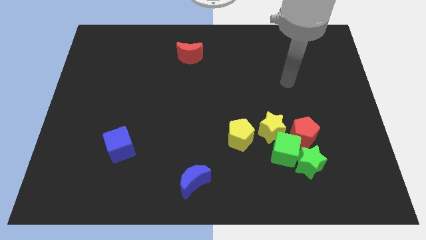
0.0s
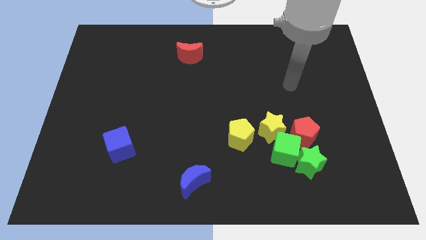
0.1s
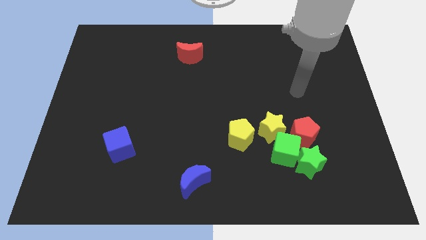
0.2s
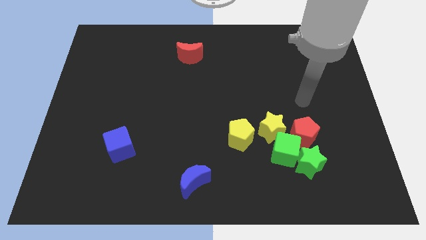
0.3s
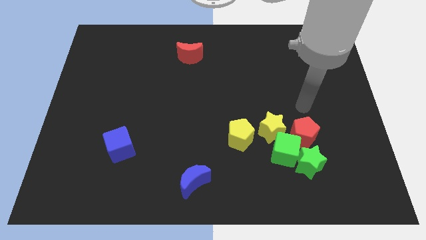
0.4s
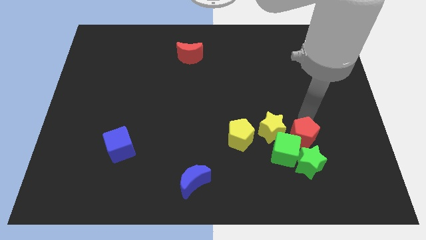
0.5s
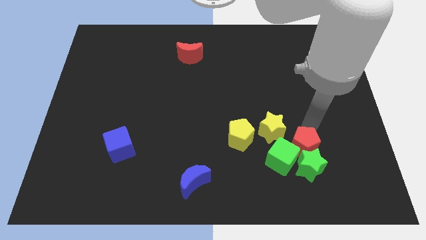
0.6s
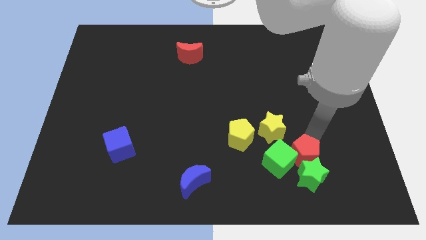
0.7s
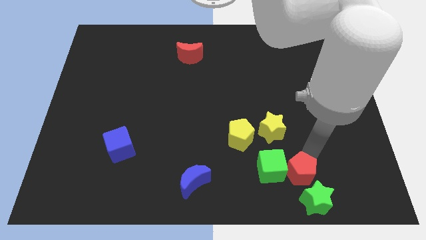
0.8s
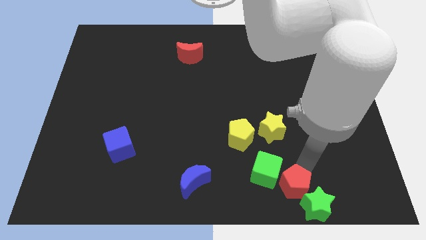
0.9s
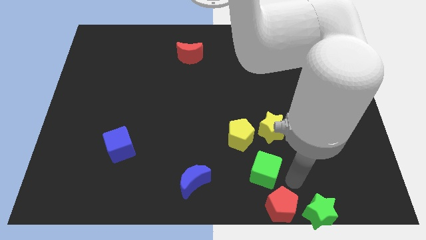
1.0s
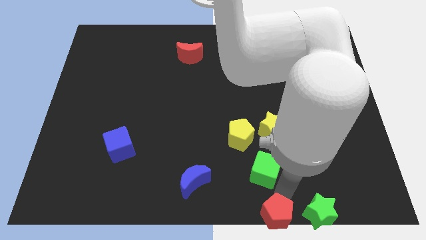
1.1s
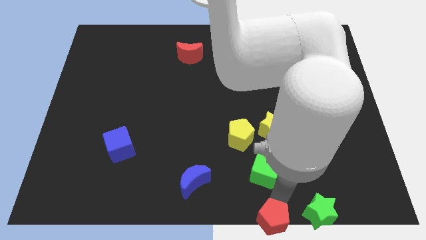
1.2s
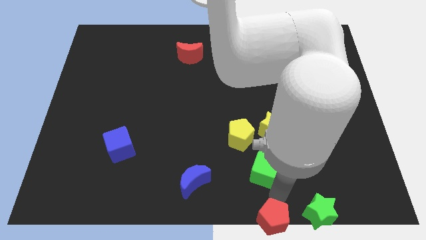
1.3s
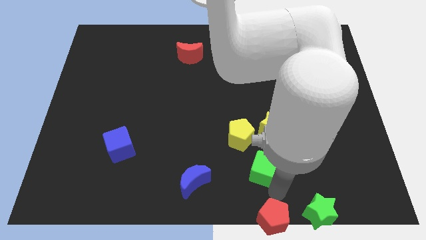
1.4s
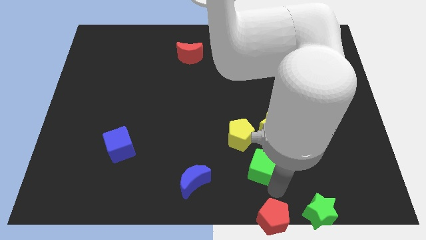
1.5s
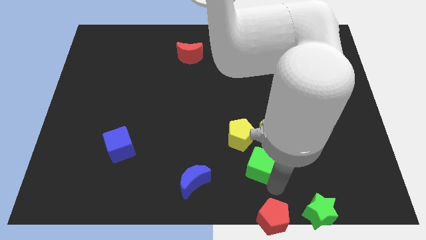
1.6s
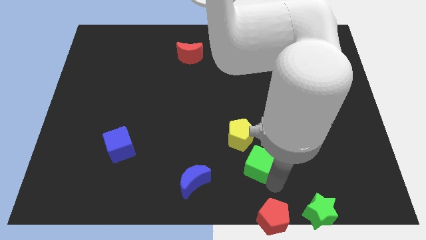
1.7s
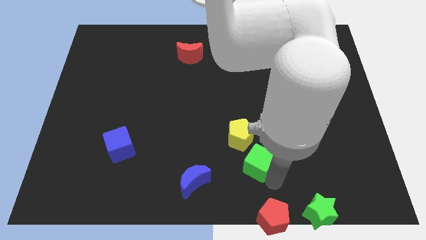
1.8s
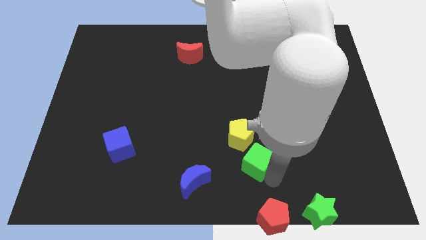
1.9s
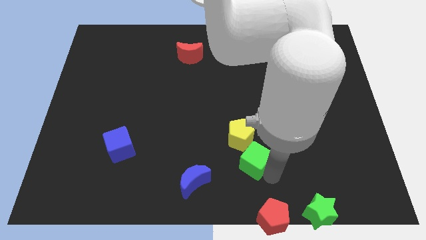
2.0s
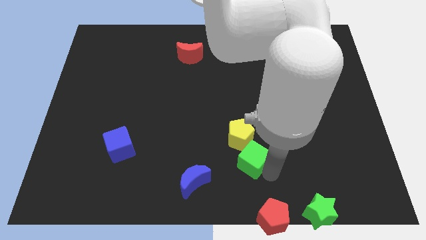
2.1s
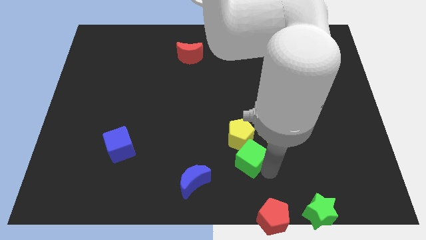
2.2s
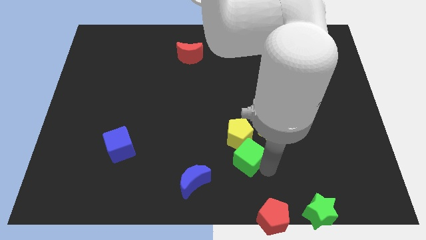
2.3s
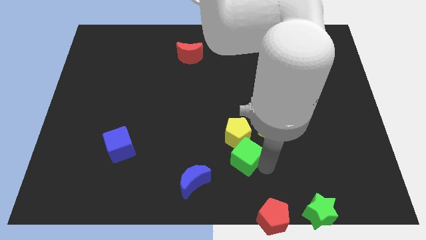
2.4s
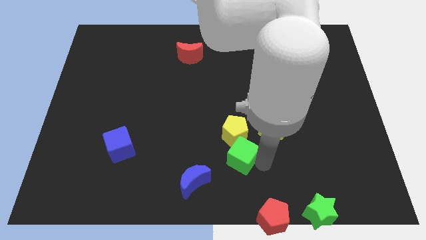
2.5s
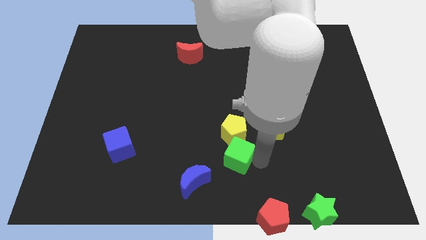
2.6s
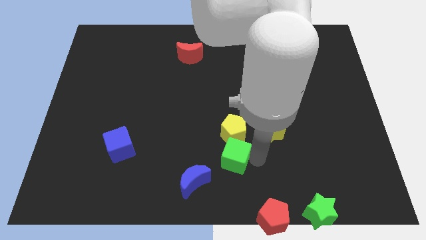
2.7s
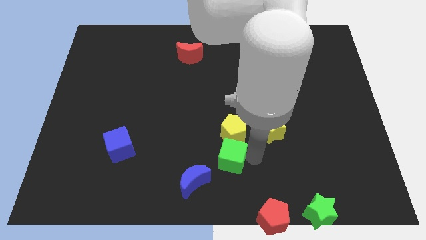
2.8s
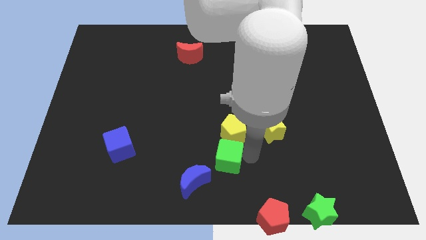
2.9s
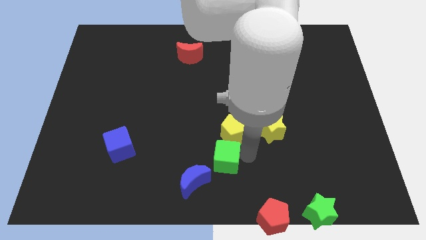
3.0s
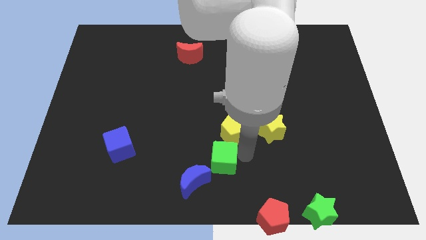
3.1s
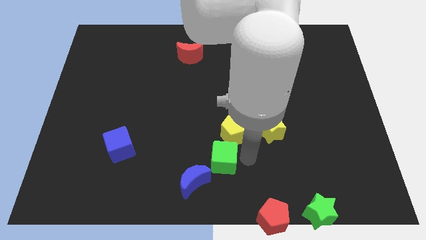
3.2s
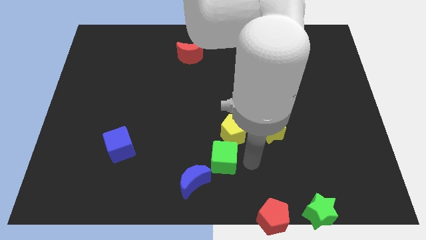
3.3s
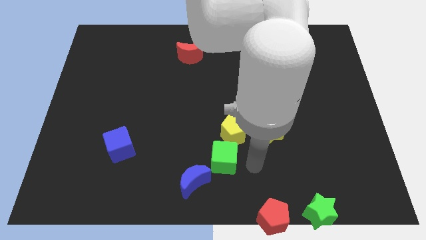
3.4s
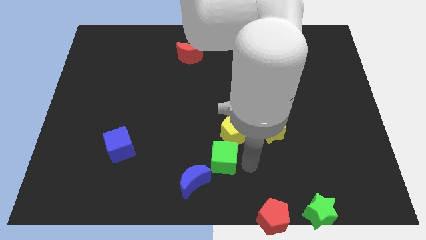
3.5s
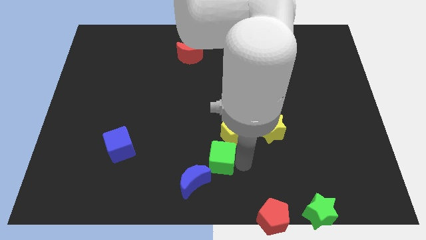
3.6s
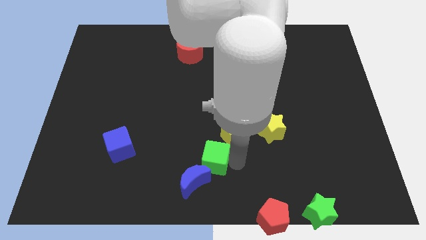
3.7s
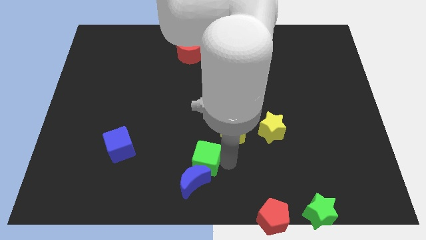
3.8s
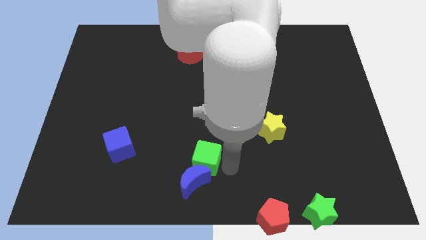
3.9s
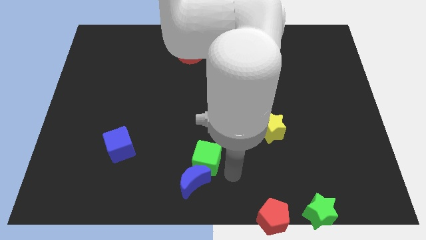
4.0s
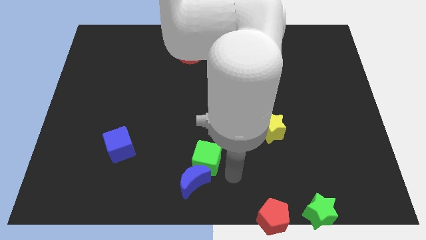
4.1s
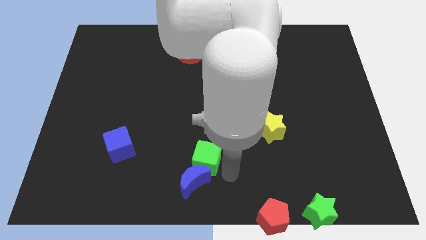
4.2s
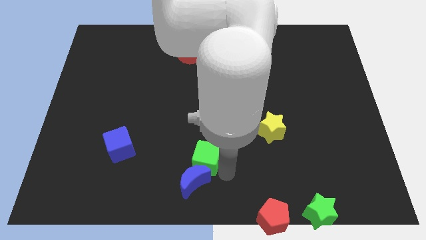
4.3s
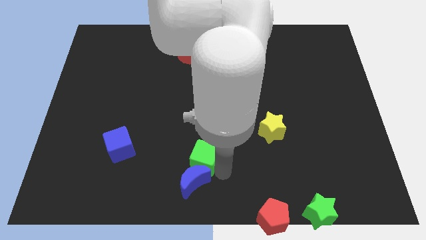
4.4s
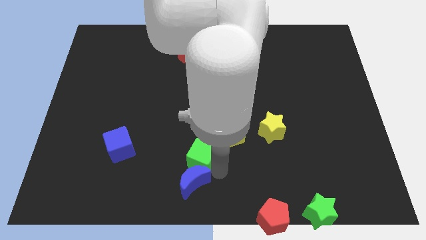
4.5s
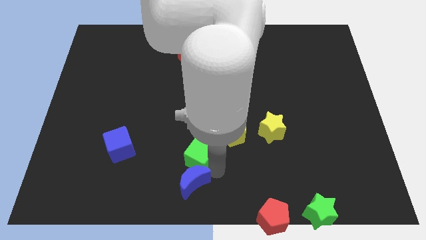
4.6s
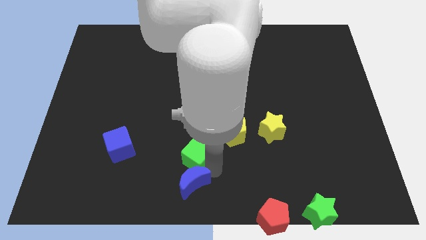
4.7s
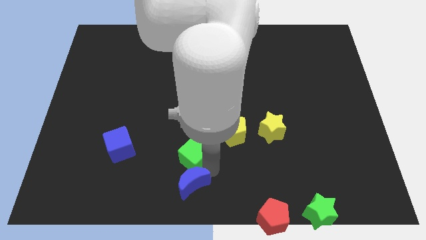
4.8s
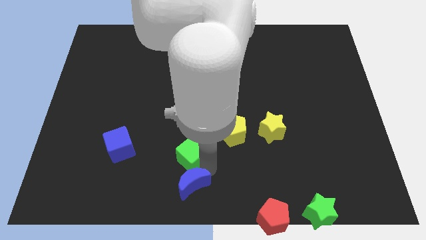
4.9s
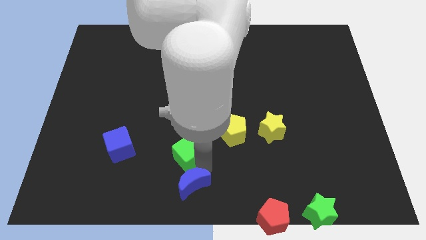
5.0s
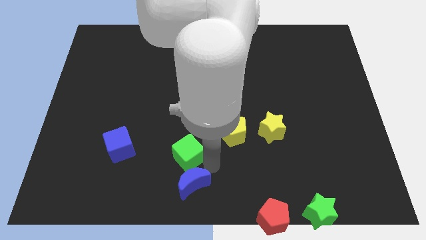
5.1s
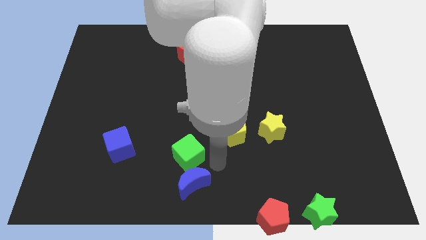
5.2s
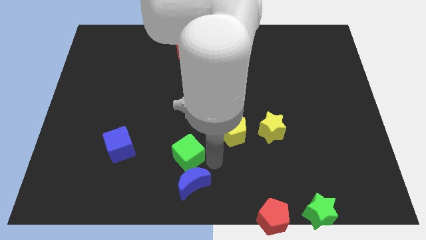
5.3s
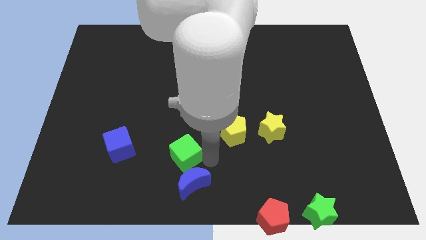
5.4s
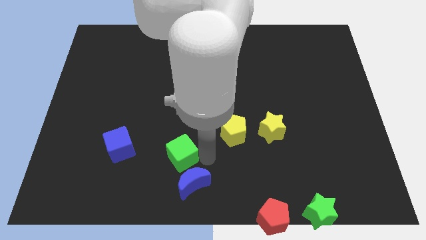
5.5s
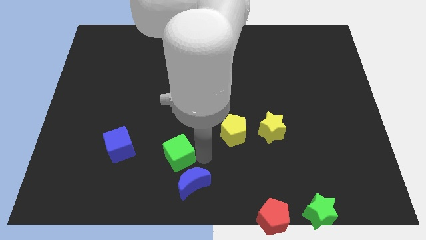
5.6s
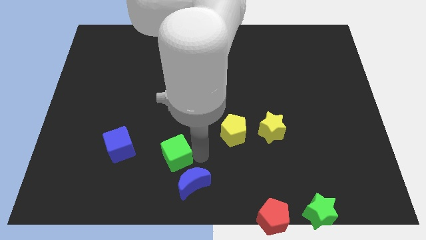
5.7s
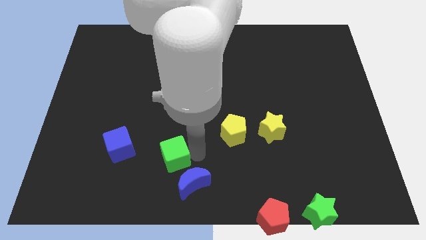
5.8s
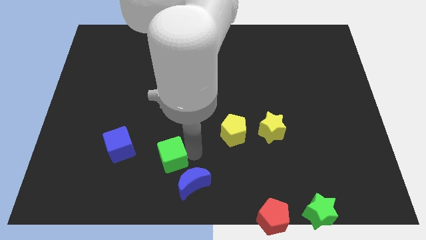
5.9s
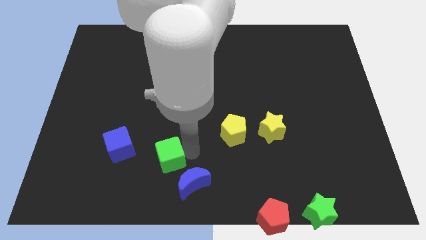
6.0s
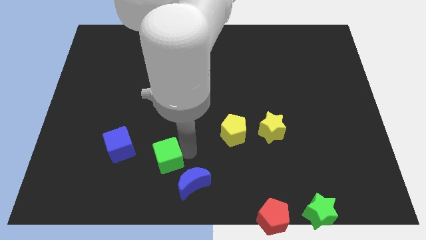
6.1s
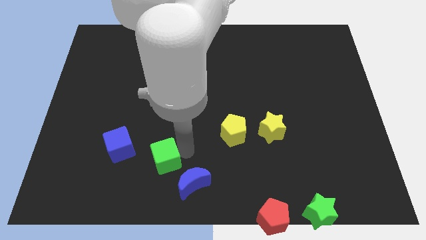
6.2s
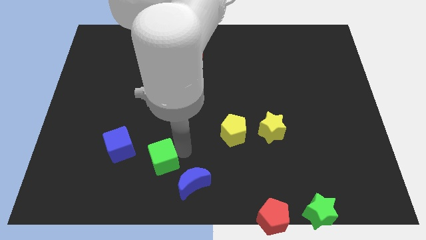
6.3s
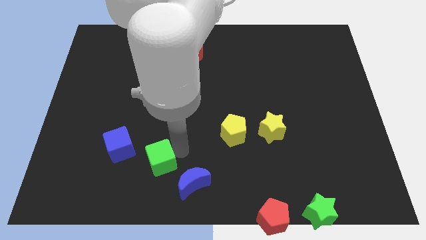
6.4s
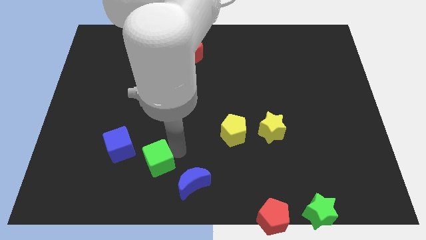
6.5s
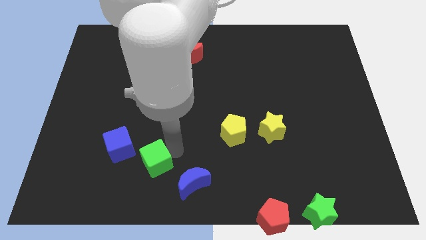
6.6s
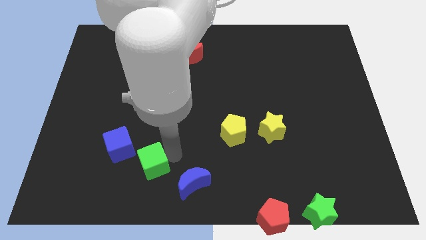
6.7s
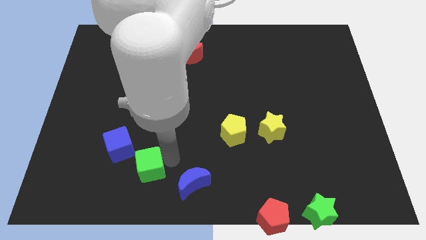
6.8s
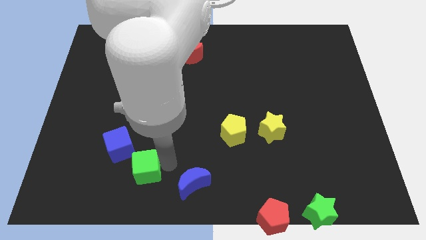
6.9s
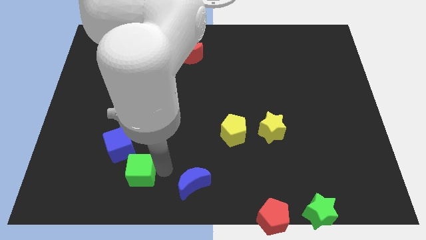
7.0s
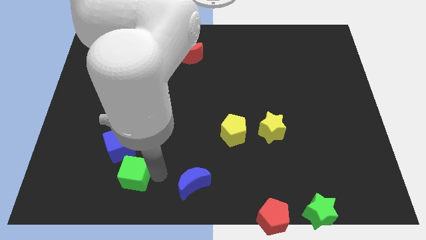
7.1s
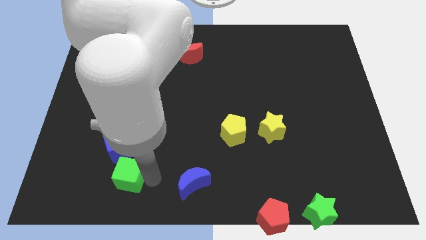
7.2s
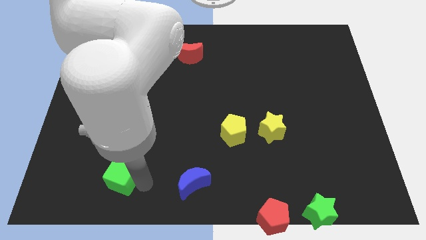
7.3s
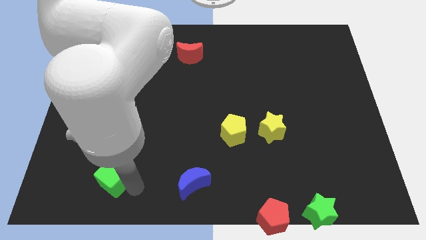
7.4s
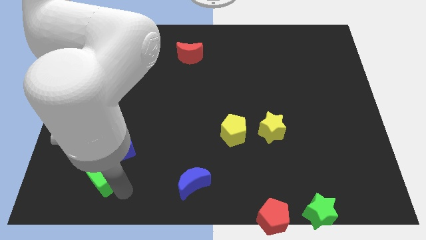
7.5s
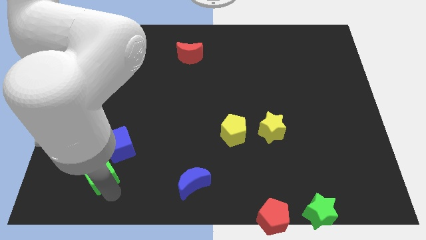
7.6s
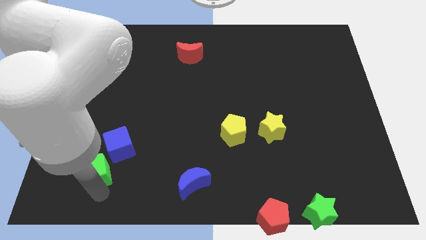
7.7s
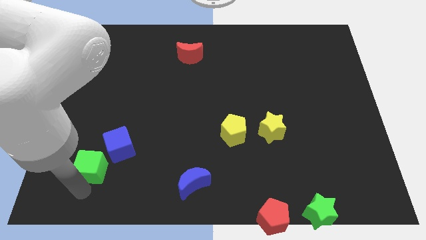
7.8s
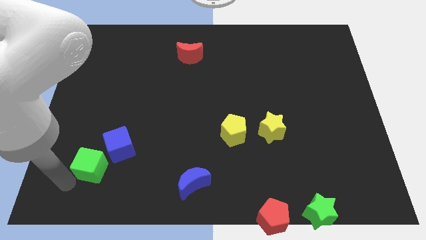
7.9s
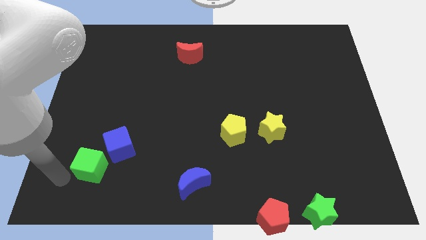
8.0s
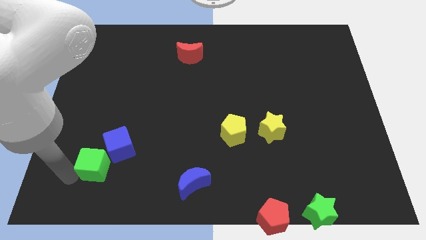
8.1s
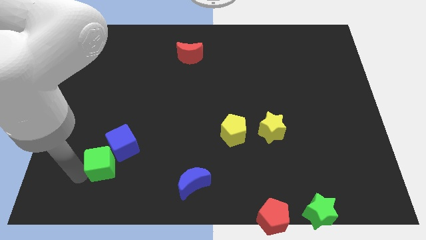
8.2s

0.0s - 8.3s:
move the green cube to the blue cube
